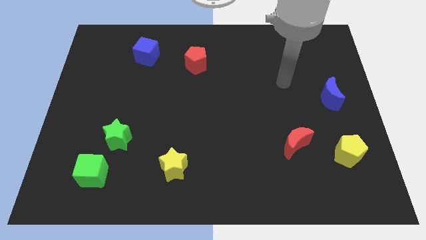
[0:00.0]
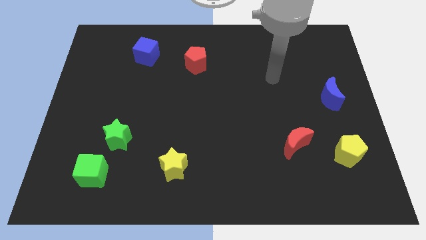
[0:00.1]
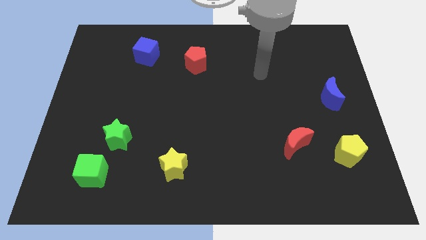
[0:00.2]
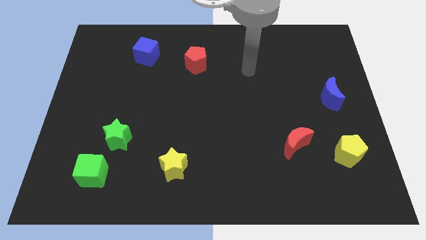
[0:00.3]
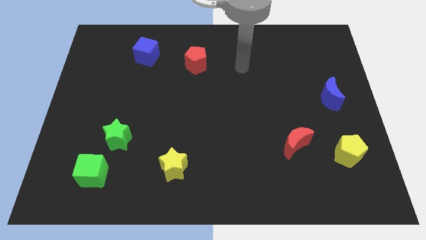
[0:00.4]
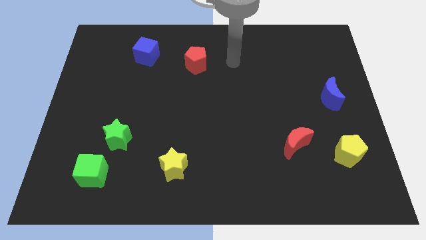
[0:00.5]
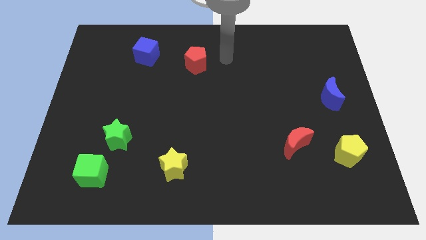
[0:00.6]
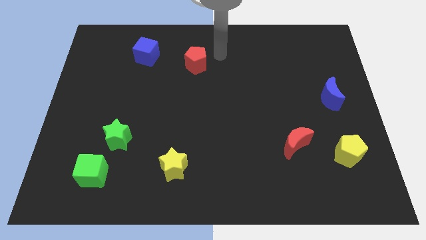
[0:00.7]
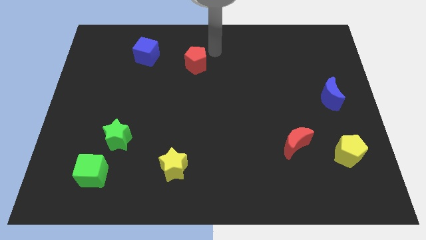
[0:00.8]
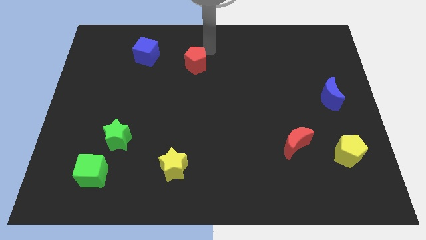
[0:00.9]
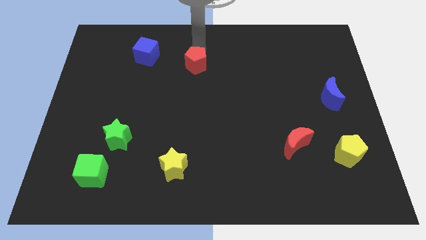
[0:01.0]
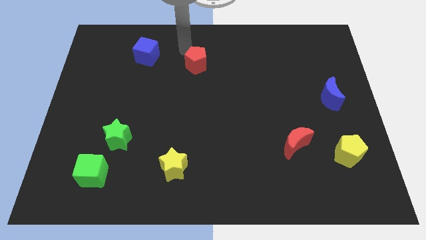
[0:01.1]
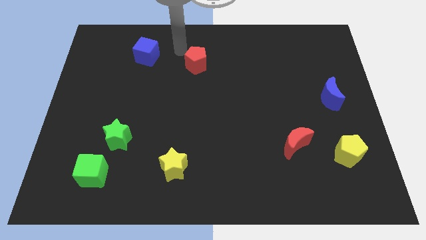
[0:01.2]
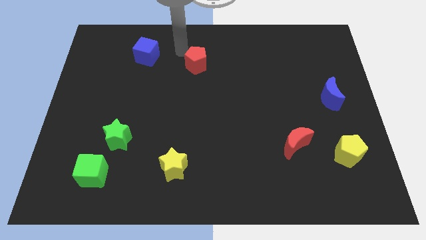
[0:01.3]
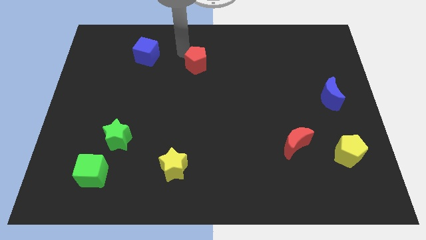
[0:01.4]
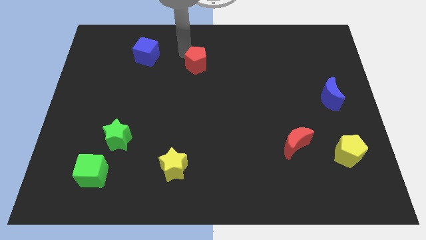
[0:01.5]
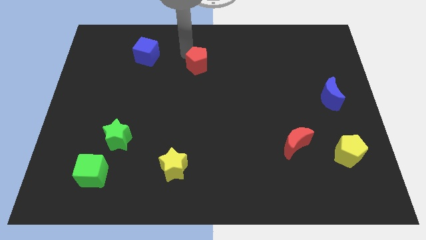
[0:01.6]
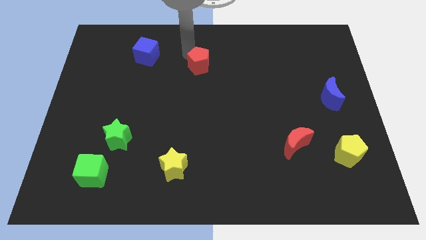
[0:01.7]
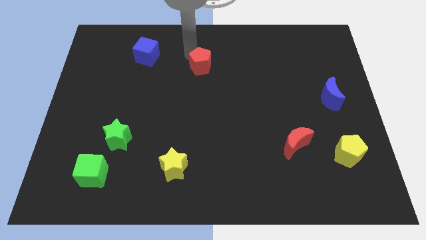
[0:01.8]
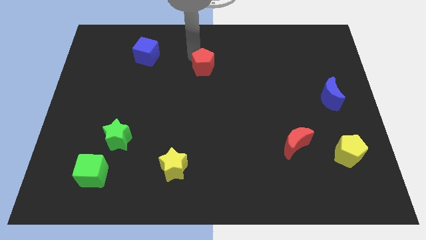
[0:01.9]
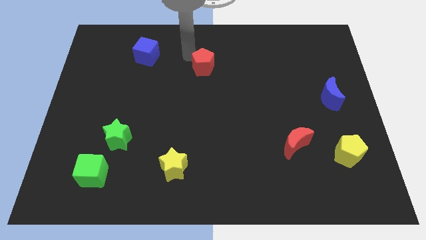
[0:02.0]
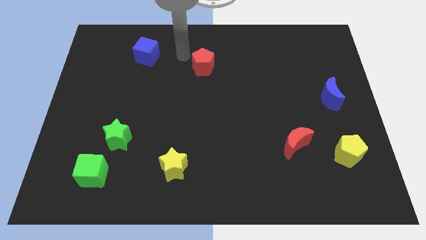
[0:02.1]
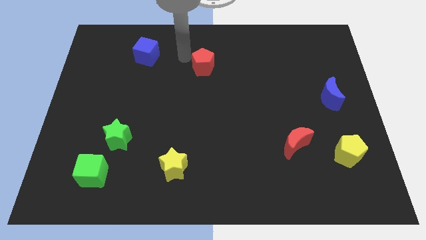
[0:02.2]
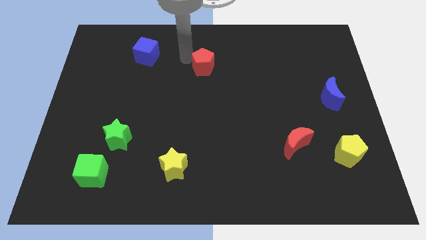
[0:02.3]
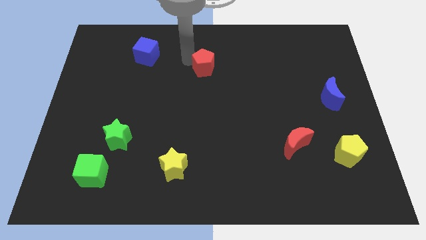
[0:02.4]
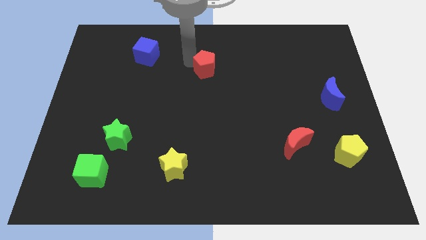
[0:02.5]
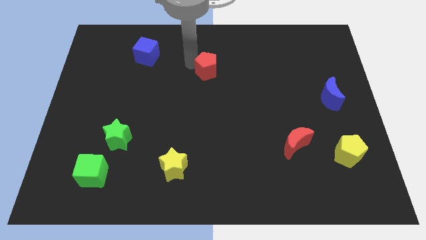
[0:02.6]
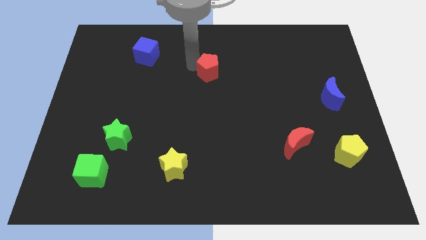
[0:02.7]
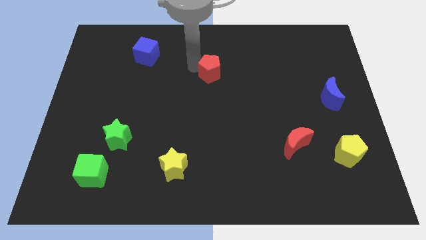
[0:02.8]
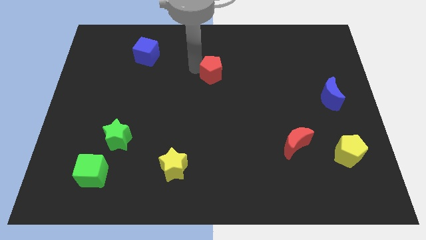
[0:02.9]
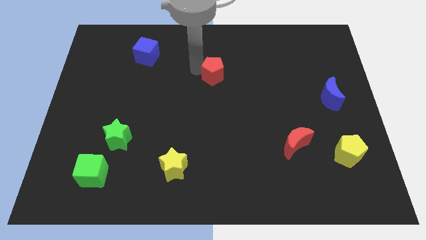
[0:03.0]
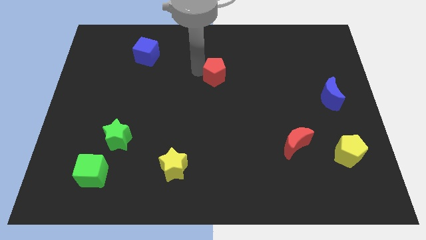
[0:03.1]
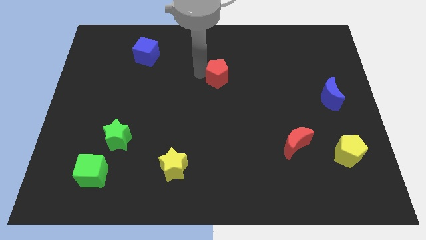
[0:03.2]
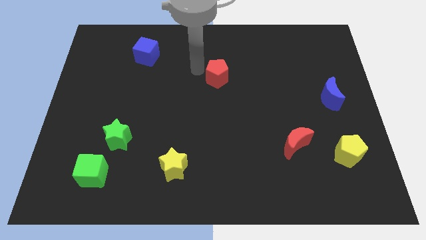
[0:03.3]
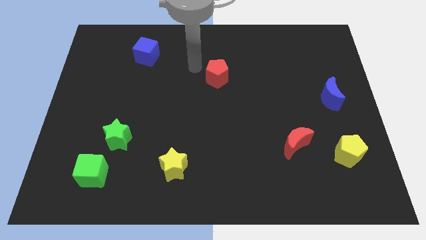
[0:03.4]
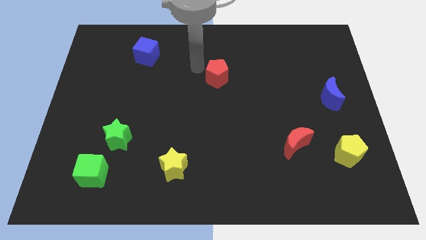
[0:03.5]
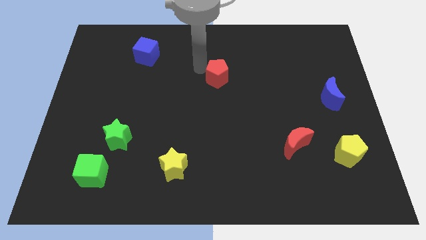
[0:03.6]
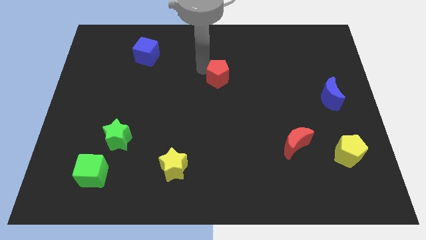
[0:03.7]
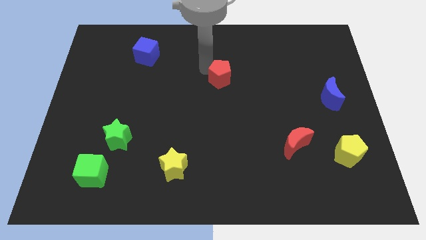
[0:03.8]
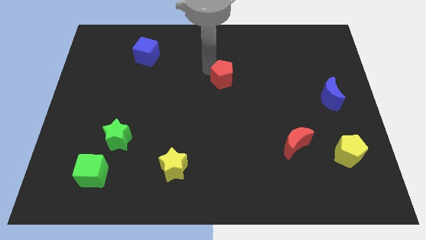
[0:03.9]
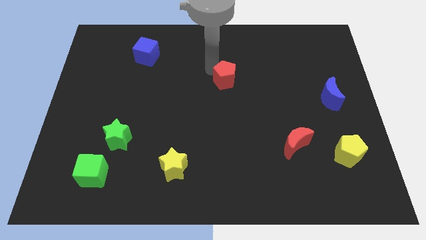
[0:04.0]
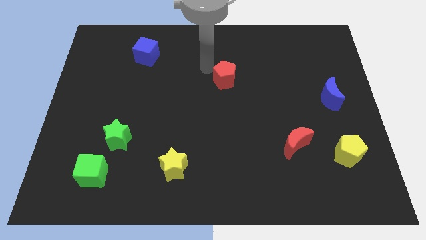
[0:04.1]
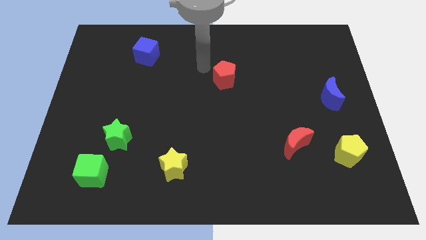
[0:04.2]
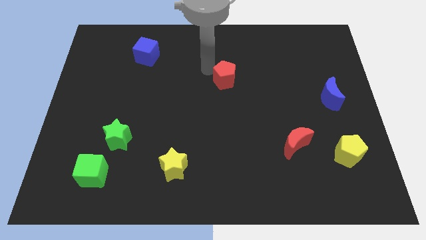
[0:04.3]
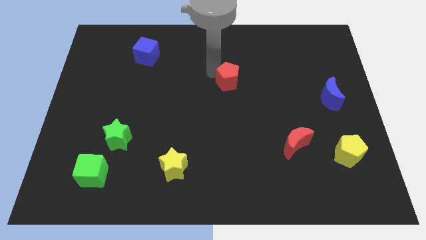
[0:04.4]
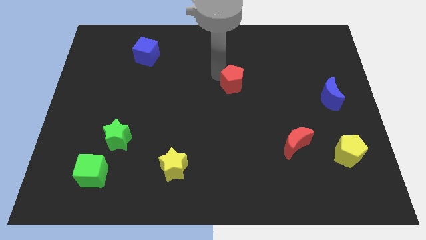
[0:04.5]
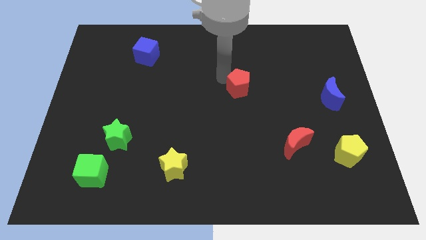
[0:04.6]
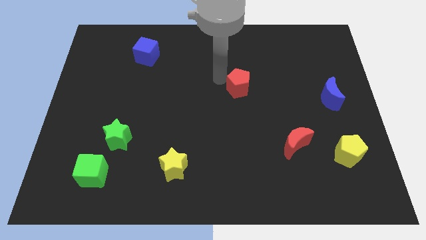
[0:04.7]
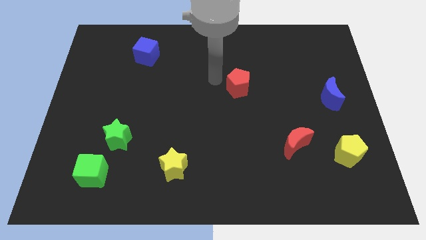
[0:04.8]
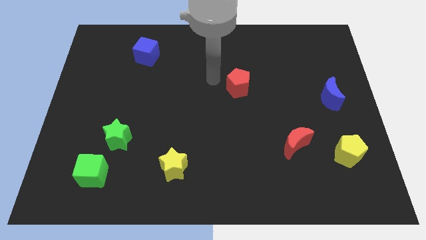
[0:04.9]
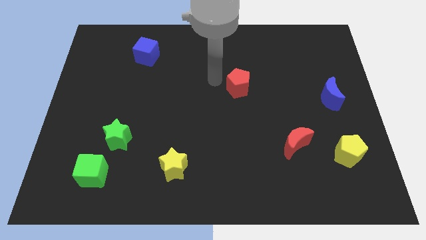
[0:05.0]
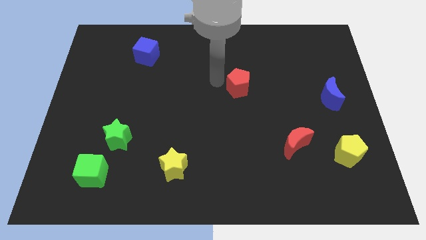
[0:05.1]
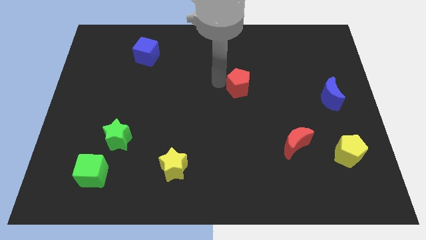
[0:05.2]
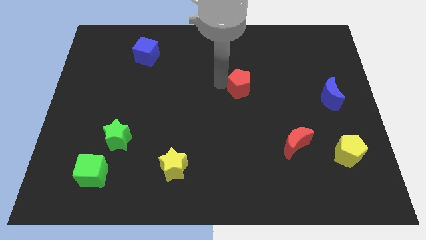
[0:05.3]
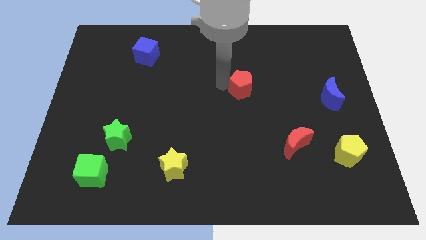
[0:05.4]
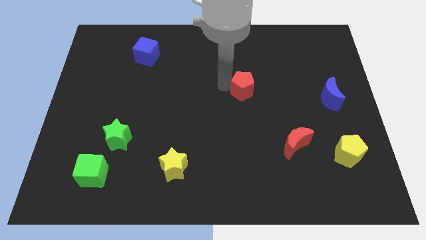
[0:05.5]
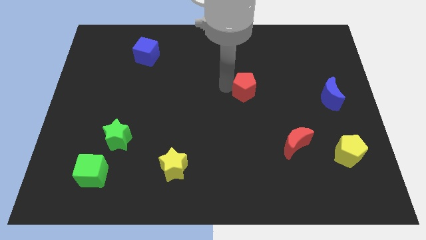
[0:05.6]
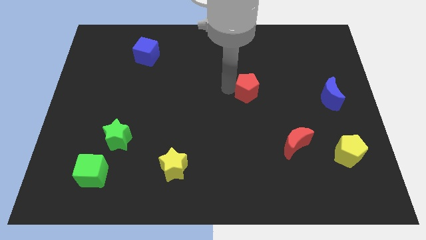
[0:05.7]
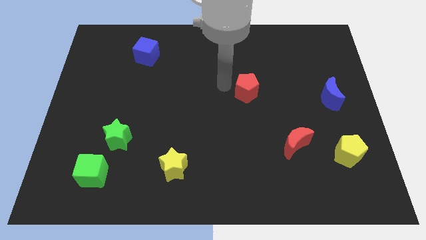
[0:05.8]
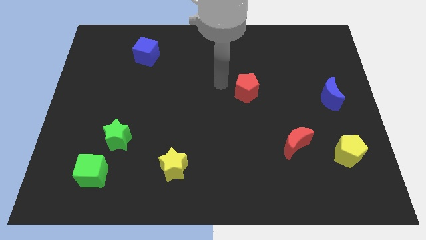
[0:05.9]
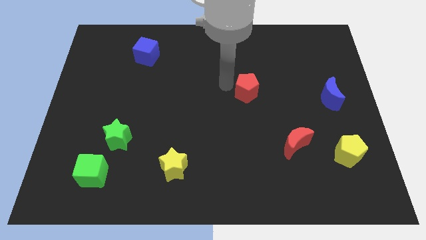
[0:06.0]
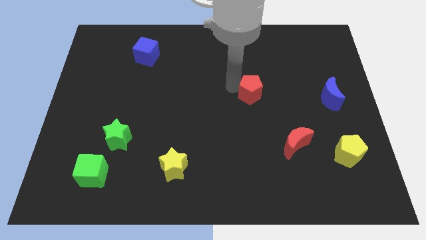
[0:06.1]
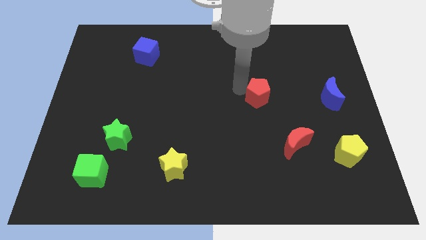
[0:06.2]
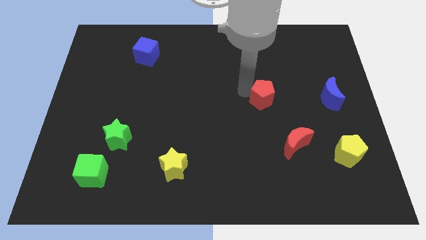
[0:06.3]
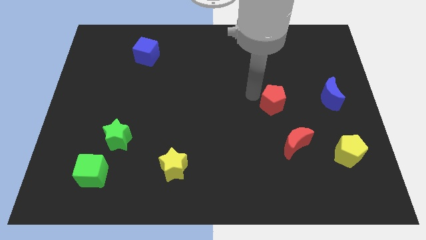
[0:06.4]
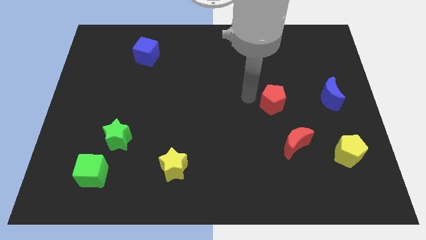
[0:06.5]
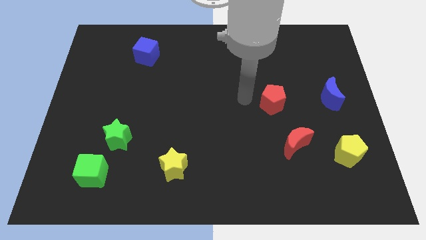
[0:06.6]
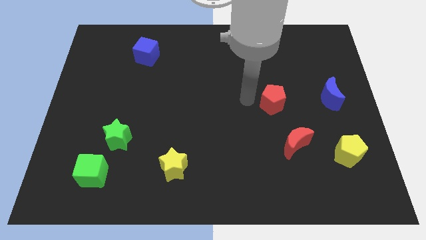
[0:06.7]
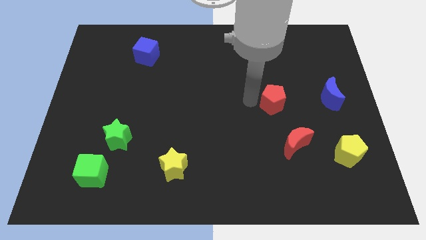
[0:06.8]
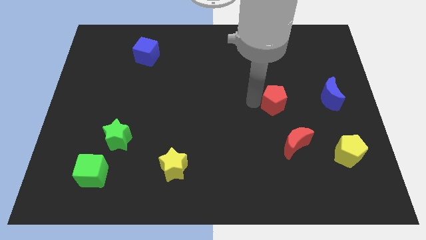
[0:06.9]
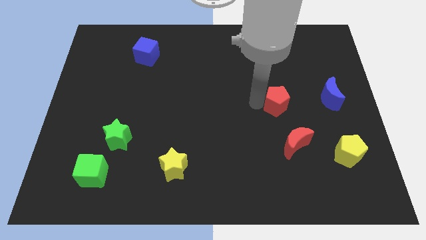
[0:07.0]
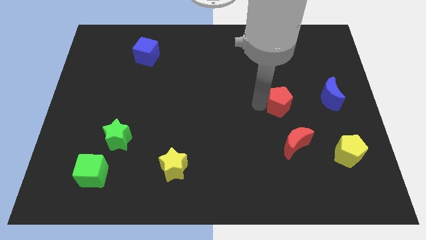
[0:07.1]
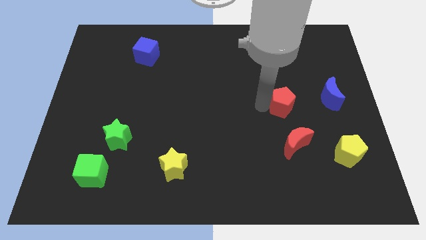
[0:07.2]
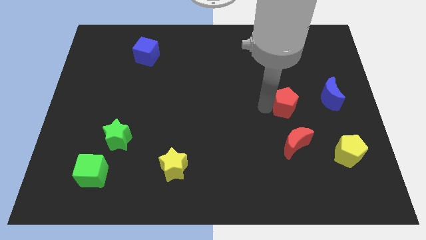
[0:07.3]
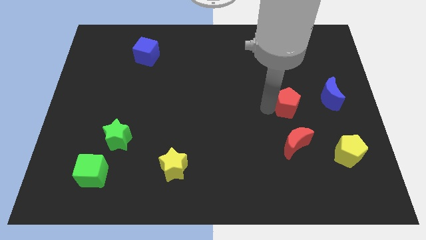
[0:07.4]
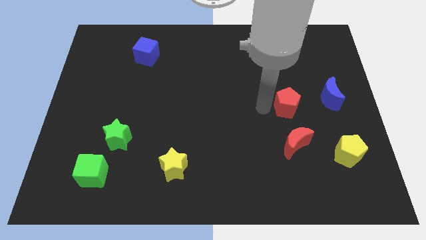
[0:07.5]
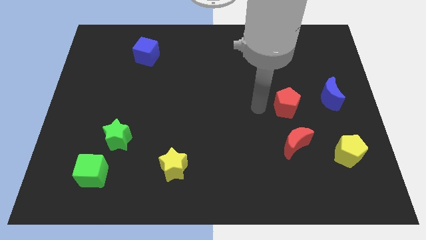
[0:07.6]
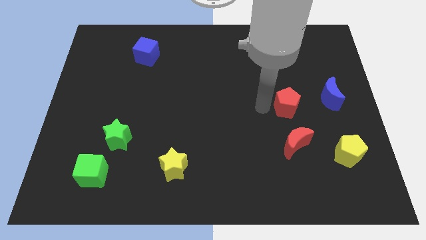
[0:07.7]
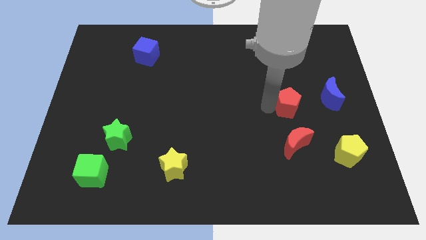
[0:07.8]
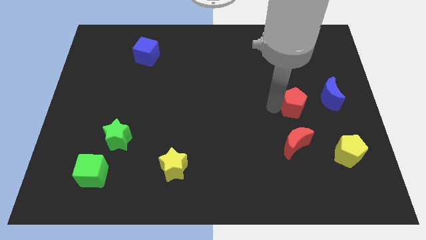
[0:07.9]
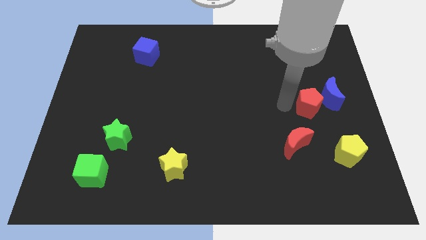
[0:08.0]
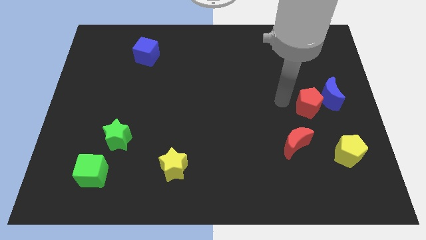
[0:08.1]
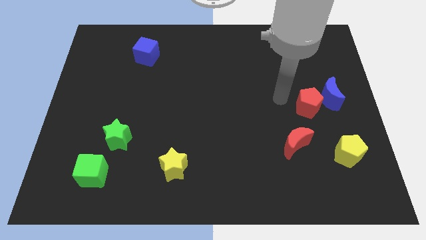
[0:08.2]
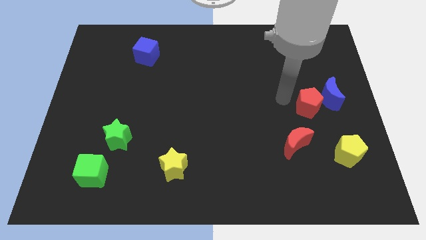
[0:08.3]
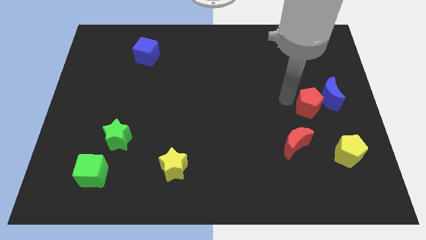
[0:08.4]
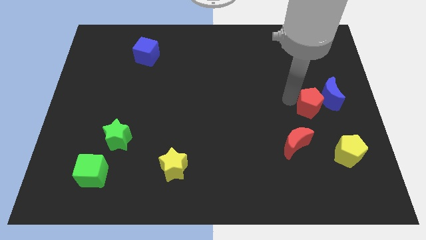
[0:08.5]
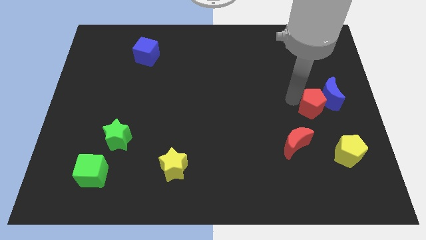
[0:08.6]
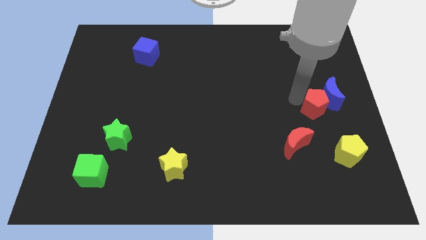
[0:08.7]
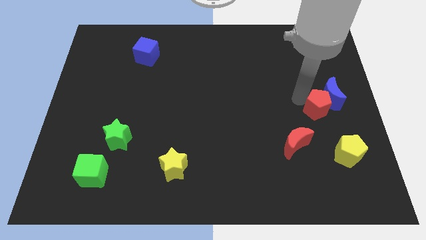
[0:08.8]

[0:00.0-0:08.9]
push the red pentagon to the top side of the yellow pentagon
